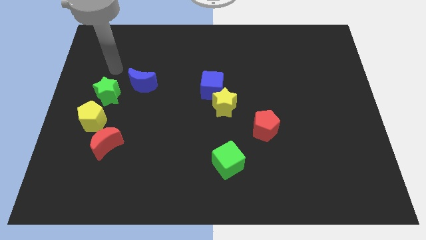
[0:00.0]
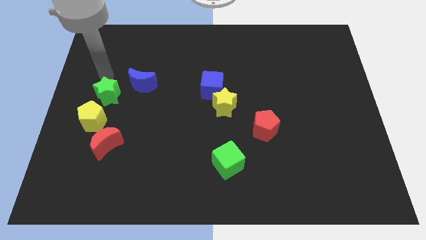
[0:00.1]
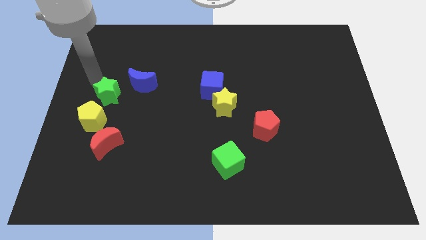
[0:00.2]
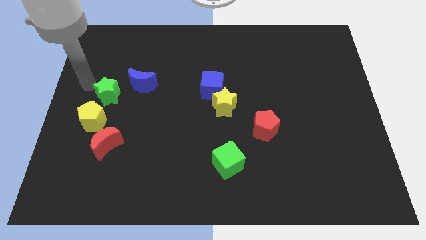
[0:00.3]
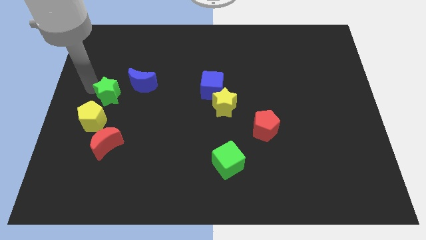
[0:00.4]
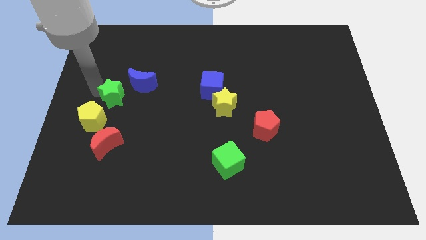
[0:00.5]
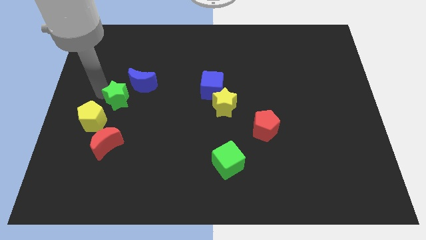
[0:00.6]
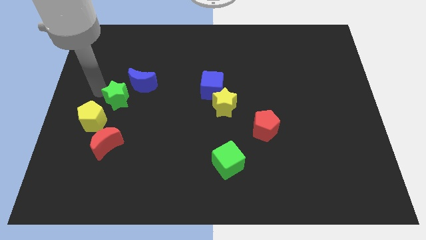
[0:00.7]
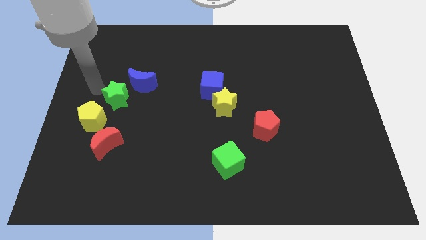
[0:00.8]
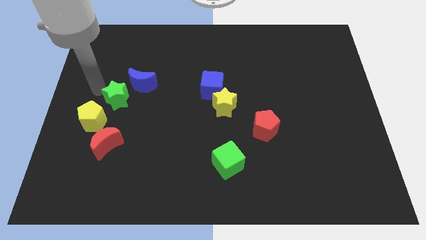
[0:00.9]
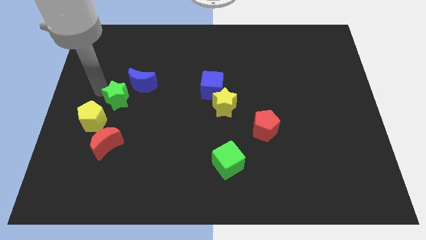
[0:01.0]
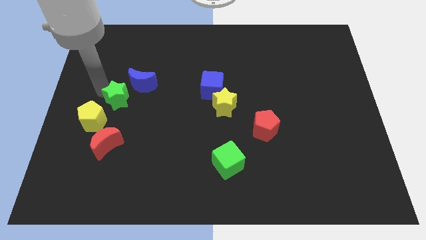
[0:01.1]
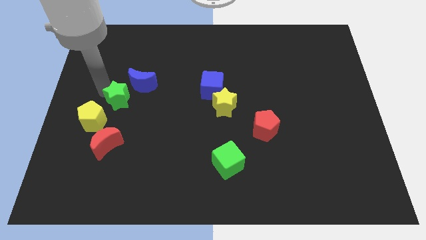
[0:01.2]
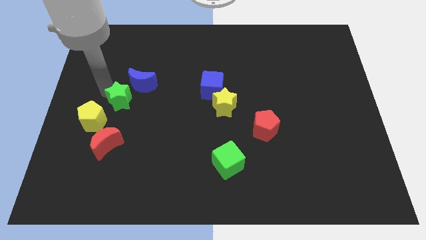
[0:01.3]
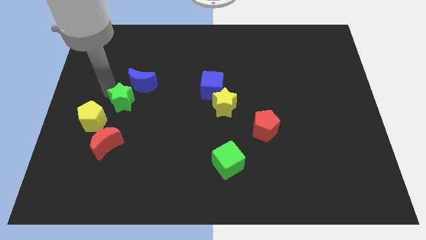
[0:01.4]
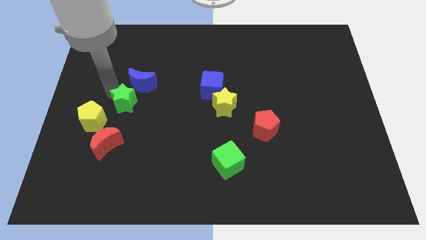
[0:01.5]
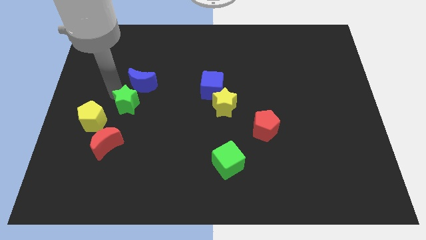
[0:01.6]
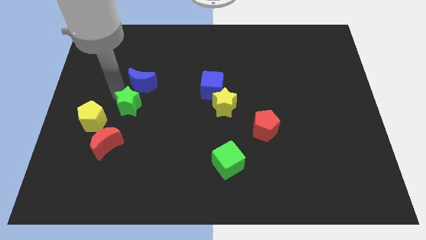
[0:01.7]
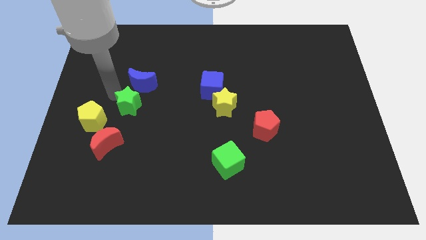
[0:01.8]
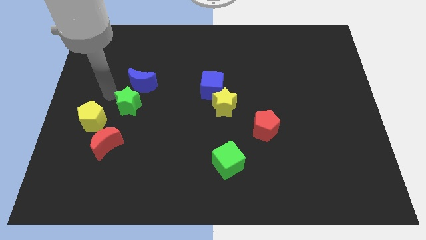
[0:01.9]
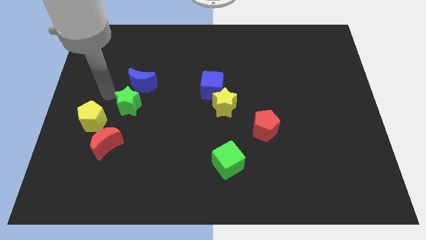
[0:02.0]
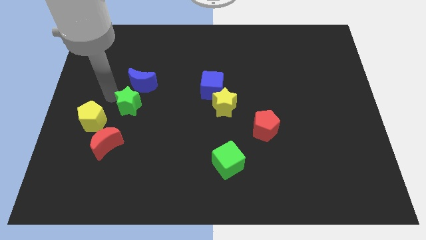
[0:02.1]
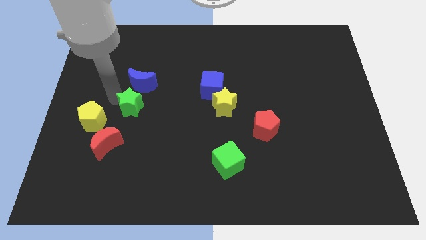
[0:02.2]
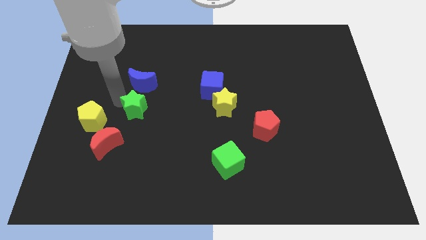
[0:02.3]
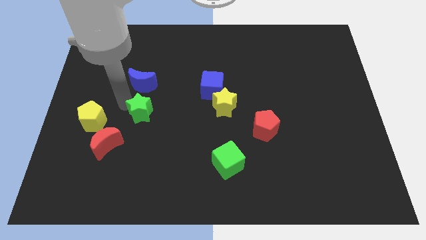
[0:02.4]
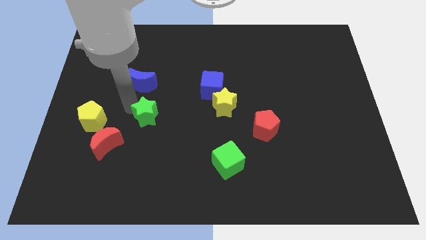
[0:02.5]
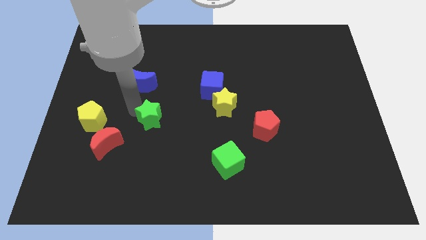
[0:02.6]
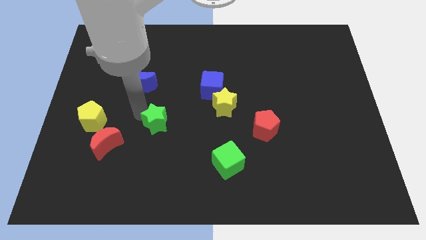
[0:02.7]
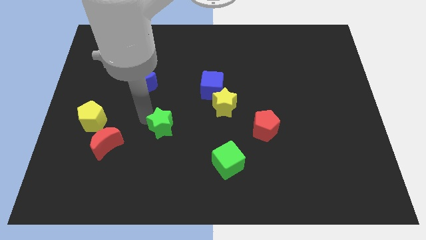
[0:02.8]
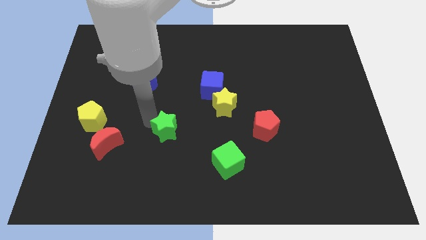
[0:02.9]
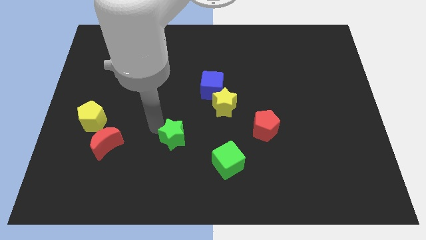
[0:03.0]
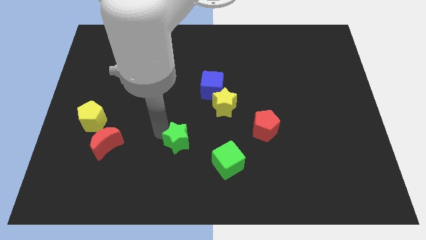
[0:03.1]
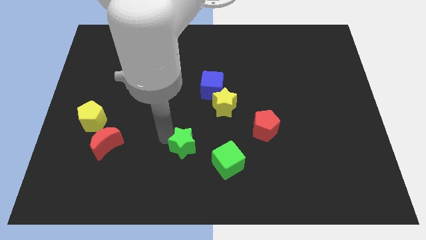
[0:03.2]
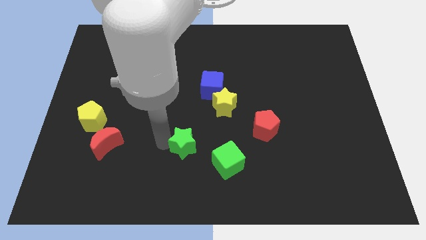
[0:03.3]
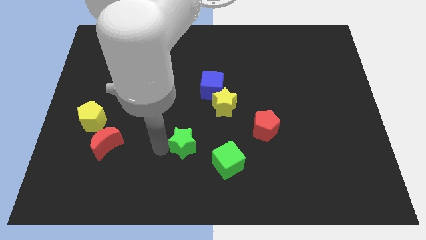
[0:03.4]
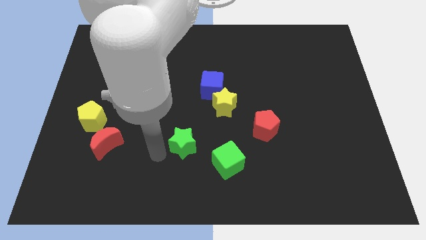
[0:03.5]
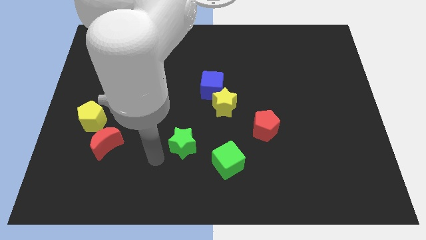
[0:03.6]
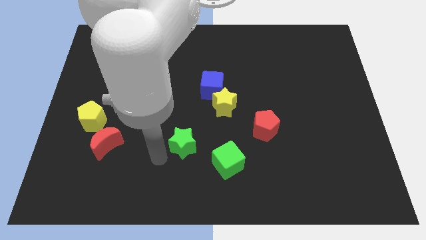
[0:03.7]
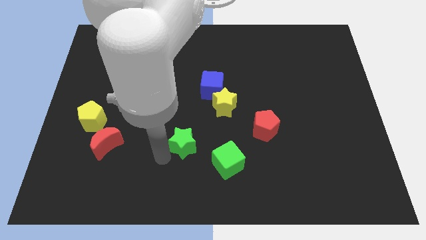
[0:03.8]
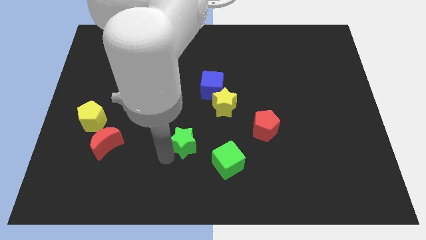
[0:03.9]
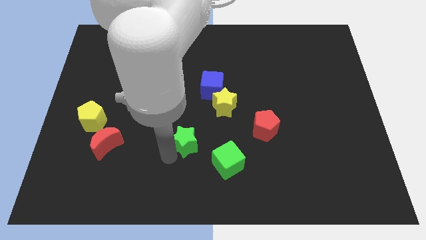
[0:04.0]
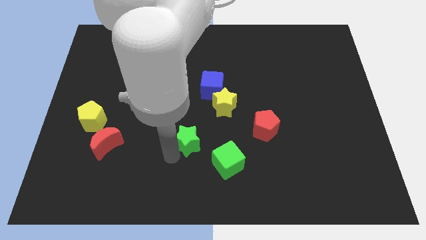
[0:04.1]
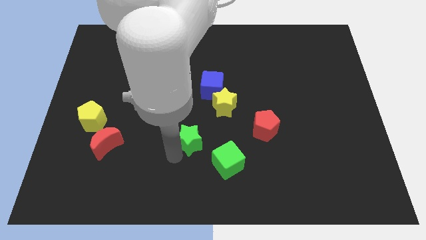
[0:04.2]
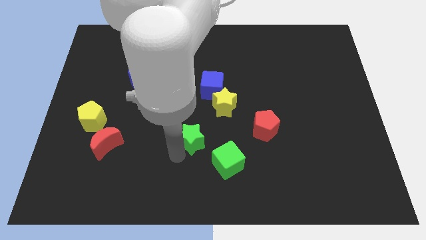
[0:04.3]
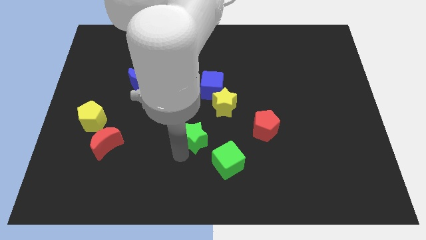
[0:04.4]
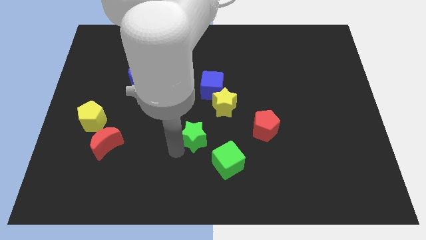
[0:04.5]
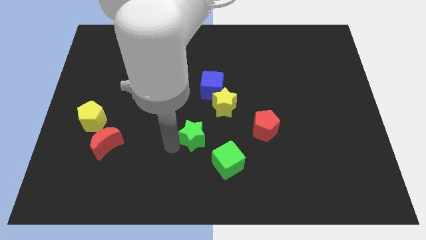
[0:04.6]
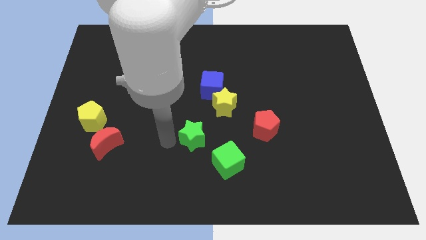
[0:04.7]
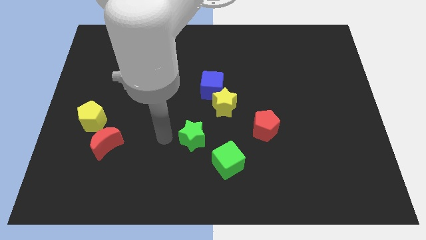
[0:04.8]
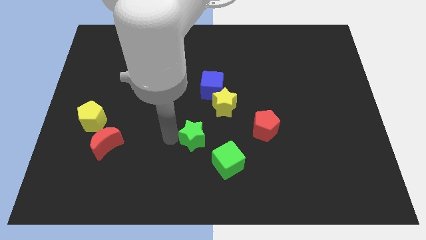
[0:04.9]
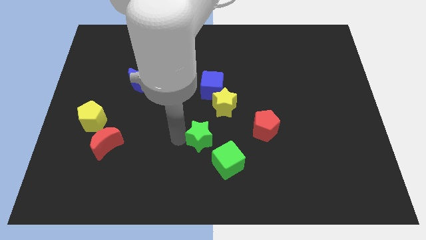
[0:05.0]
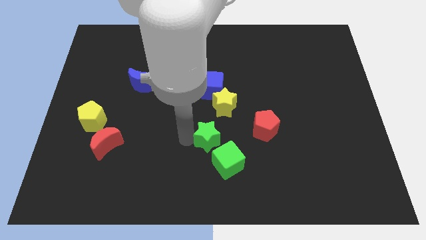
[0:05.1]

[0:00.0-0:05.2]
push the green star below the yellow star

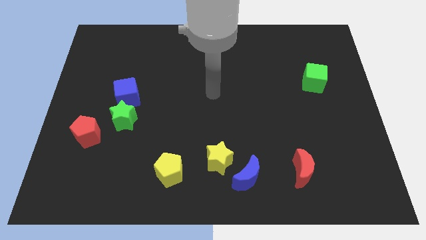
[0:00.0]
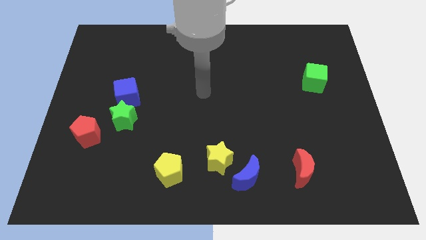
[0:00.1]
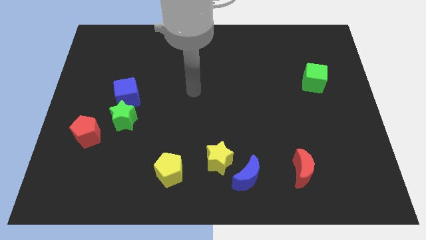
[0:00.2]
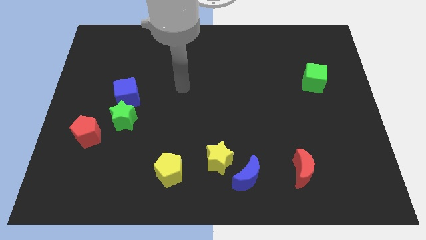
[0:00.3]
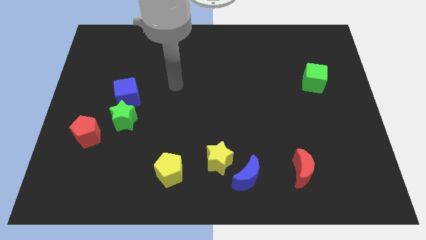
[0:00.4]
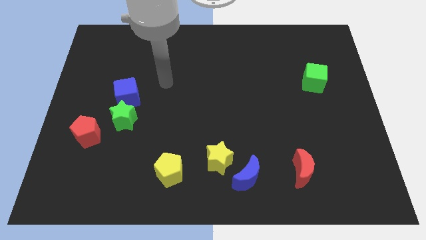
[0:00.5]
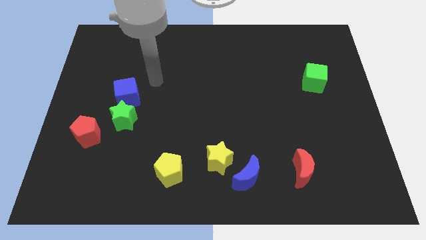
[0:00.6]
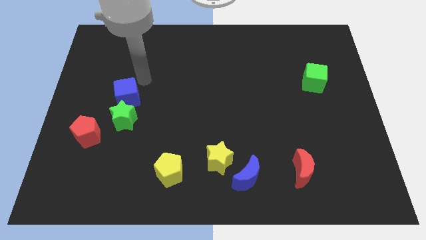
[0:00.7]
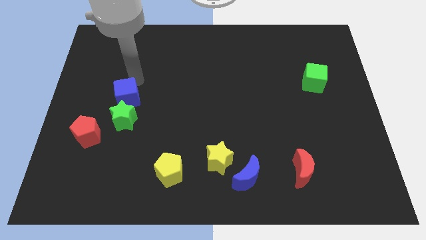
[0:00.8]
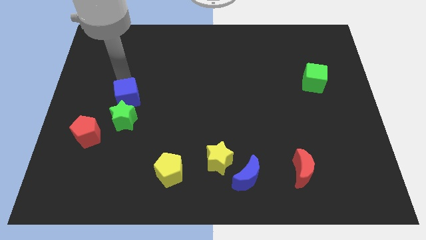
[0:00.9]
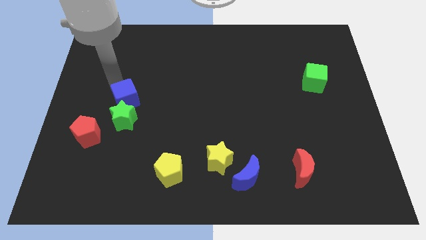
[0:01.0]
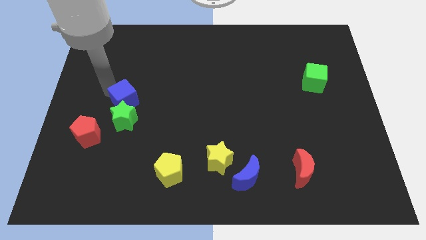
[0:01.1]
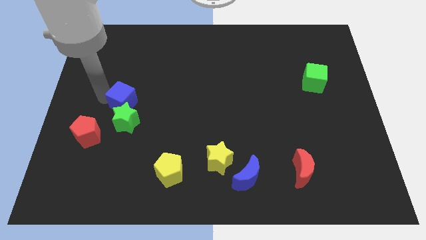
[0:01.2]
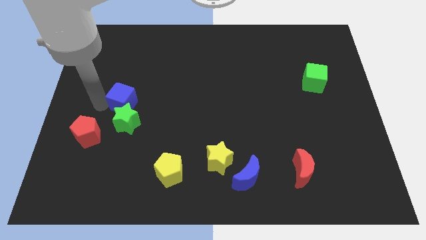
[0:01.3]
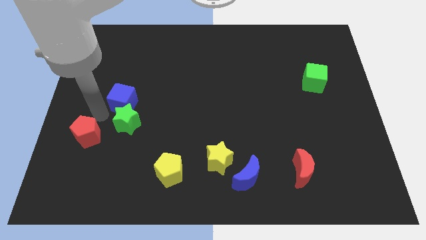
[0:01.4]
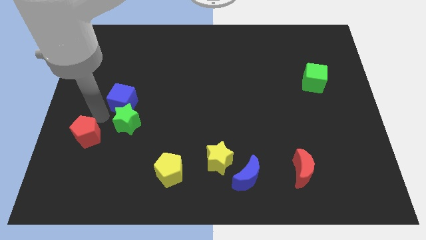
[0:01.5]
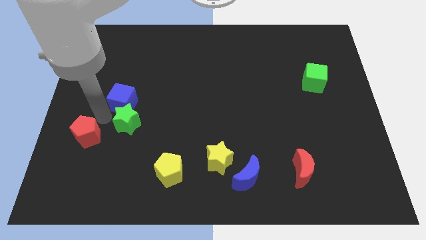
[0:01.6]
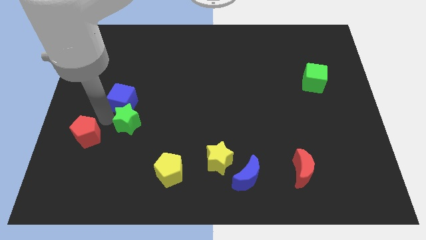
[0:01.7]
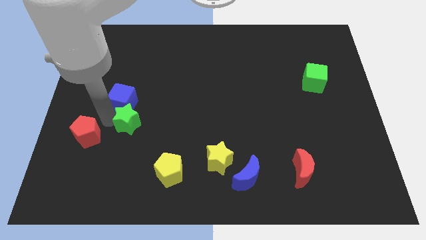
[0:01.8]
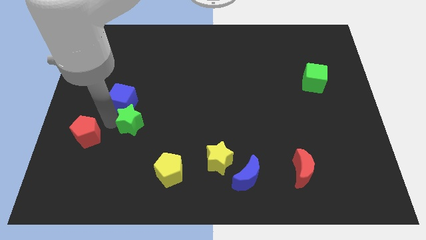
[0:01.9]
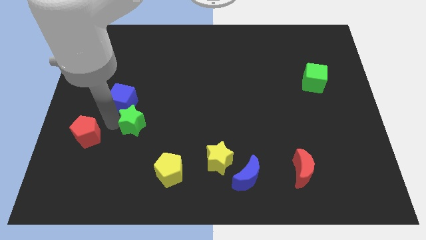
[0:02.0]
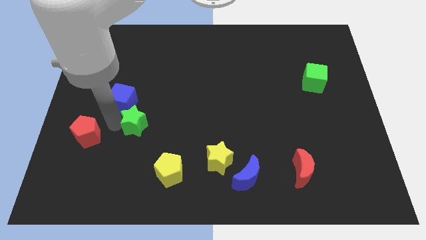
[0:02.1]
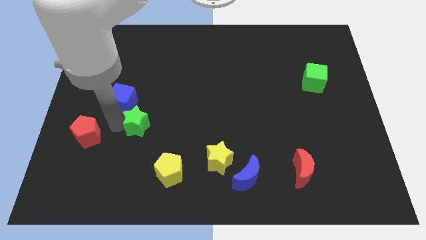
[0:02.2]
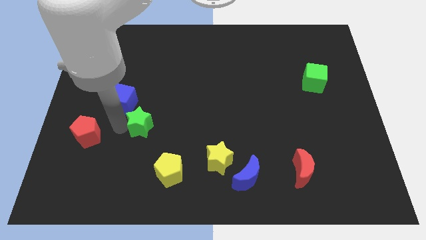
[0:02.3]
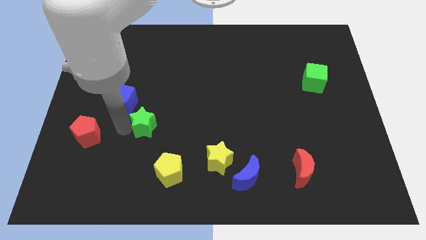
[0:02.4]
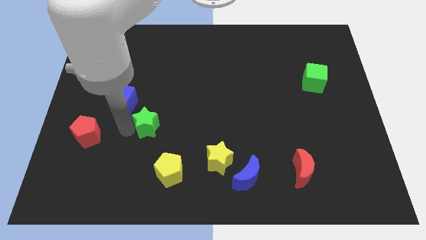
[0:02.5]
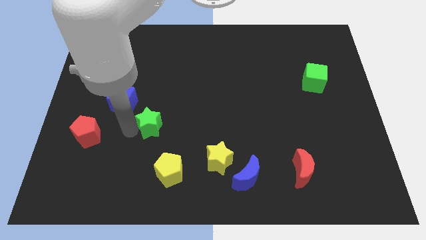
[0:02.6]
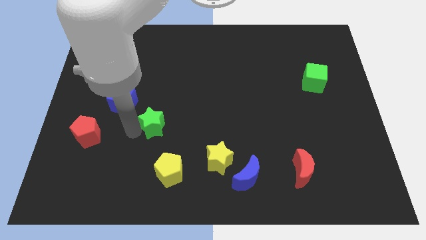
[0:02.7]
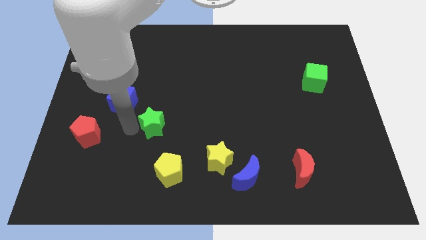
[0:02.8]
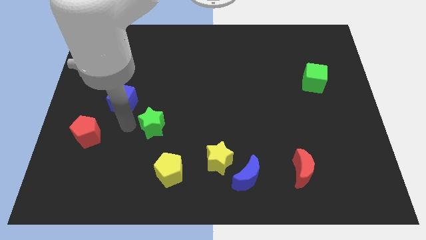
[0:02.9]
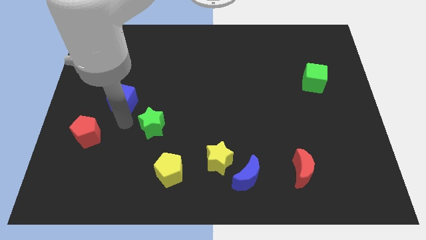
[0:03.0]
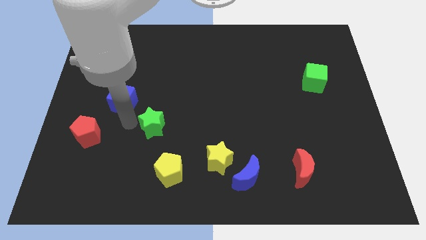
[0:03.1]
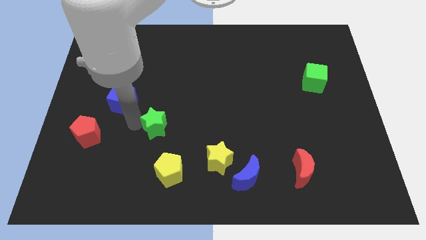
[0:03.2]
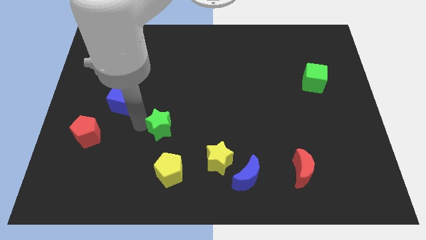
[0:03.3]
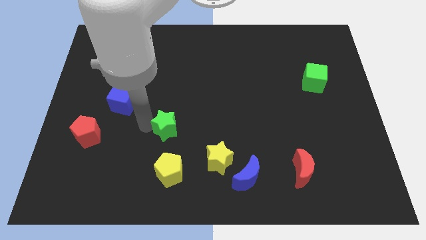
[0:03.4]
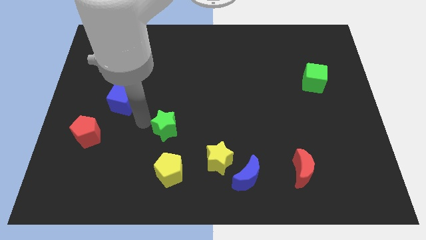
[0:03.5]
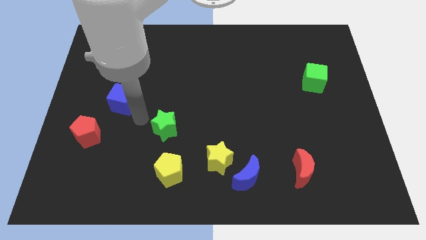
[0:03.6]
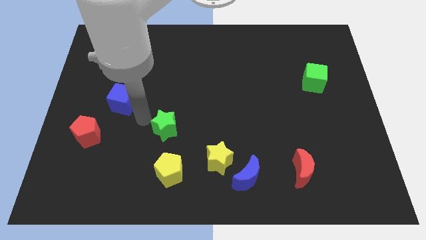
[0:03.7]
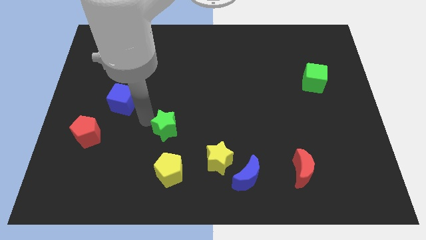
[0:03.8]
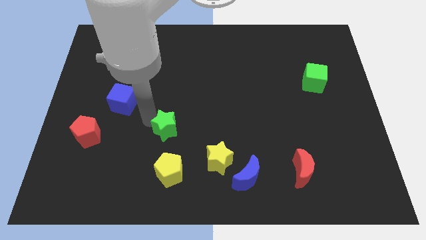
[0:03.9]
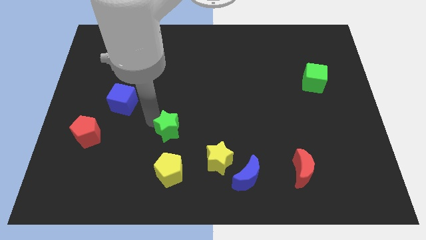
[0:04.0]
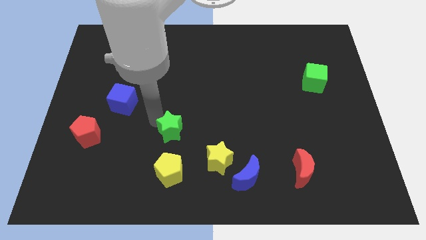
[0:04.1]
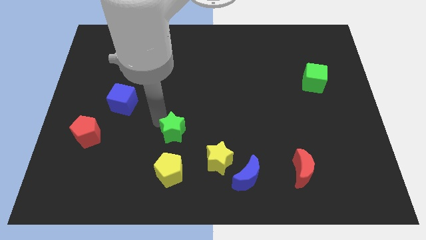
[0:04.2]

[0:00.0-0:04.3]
push the green star to the top left side of the yellow star
